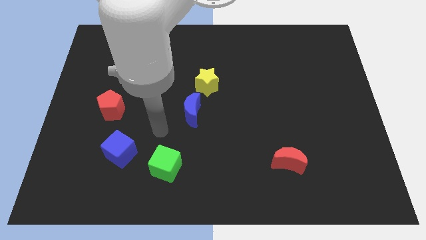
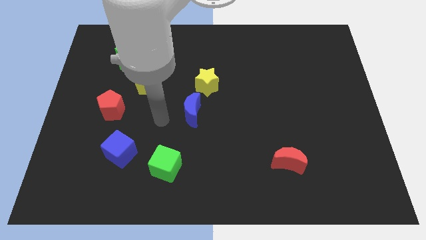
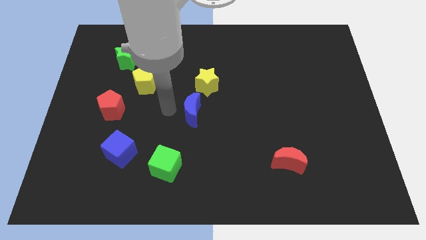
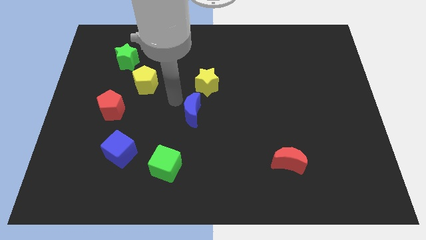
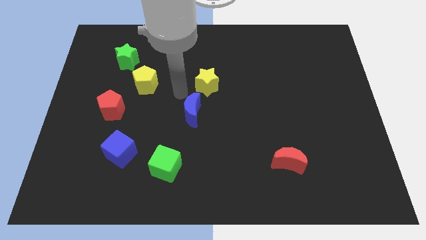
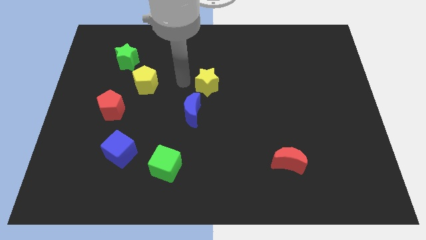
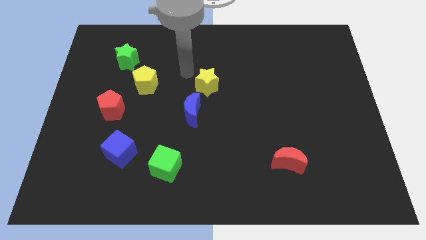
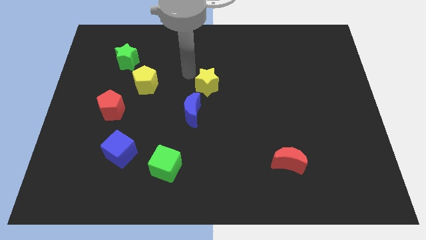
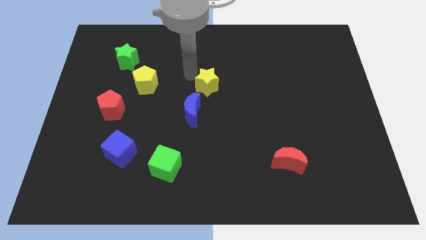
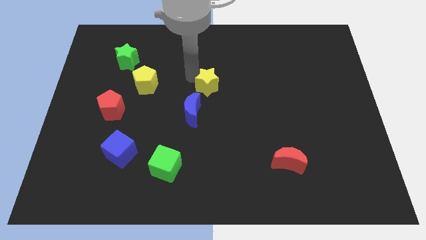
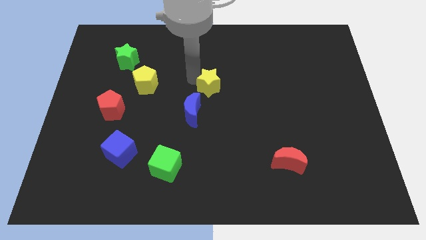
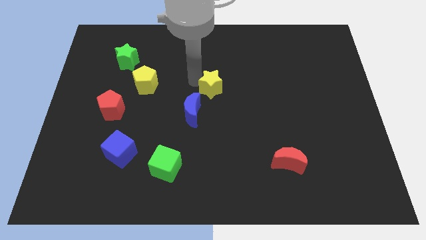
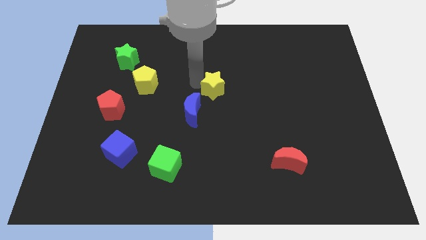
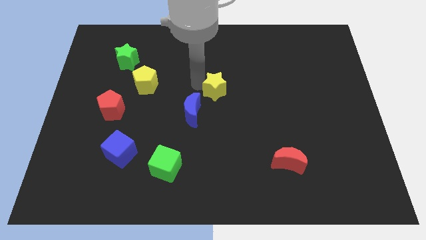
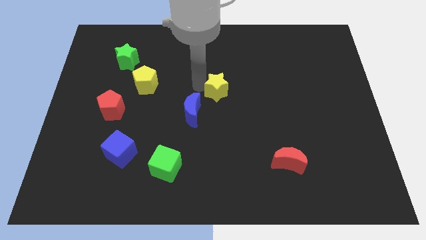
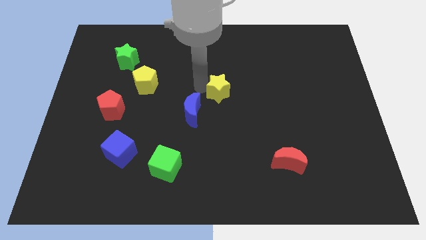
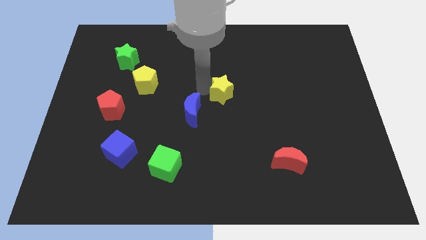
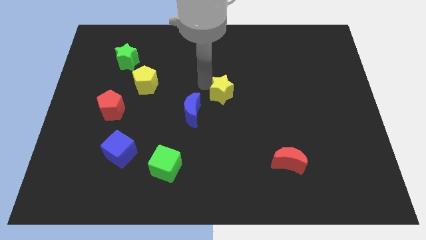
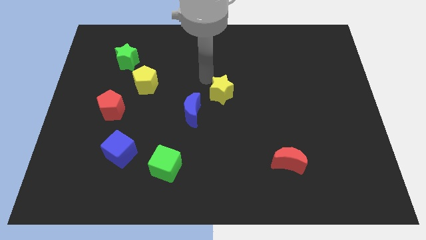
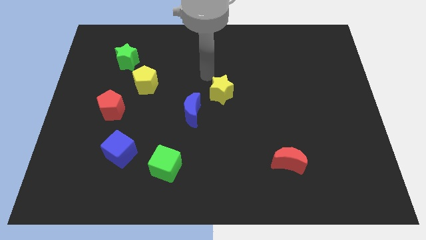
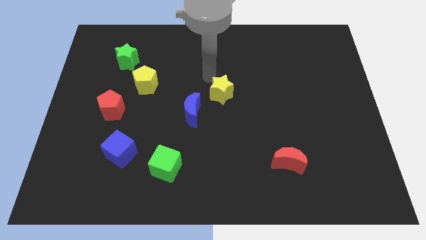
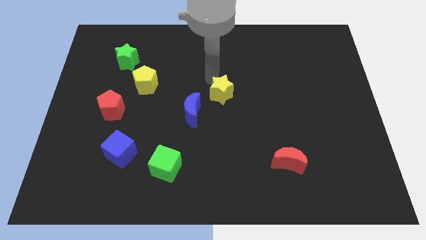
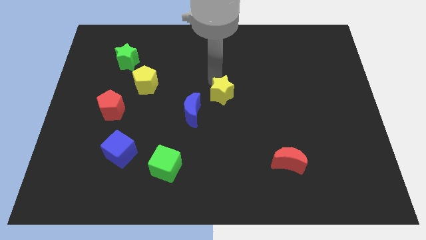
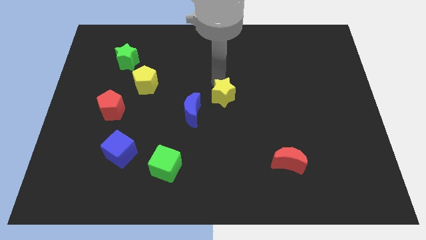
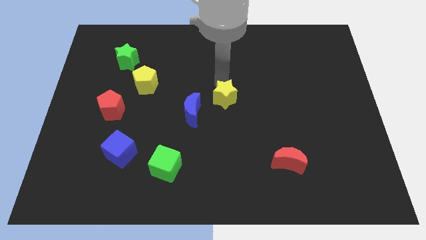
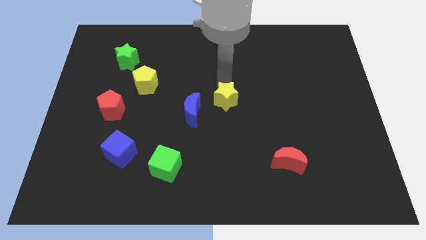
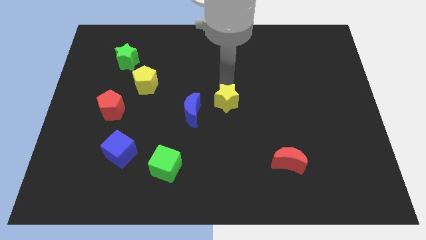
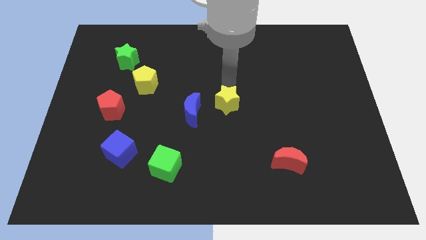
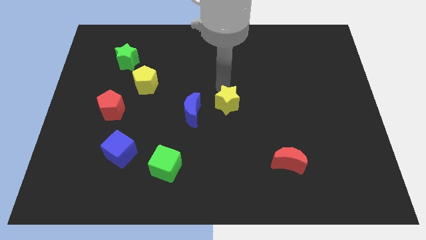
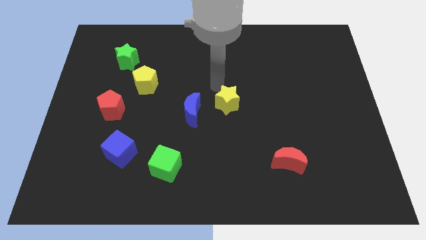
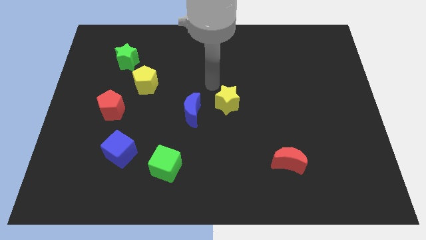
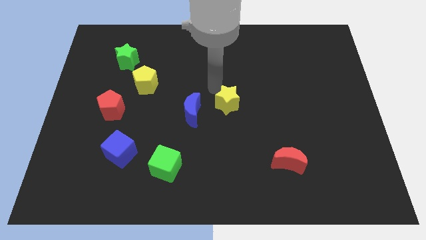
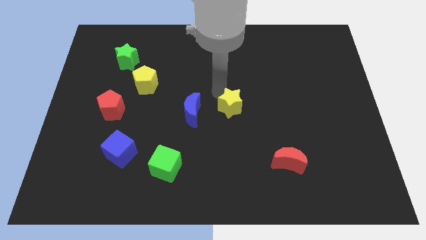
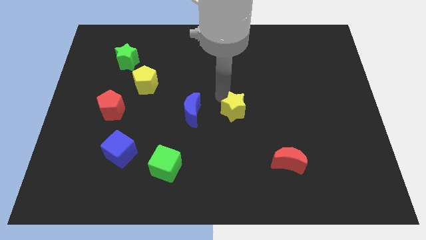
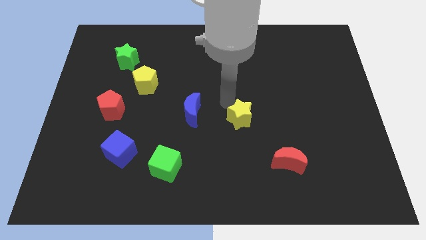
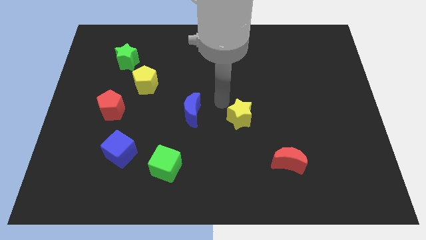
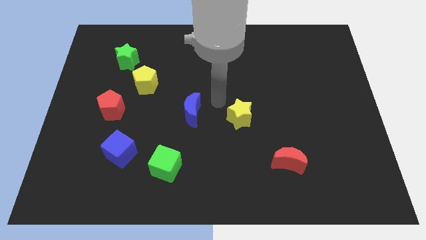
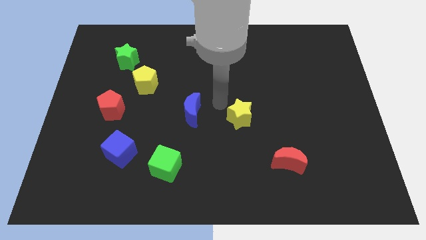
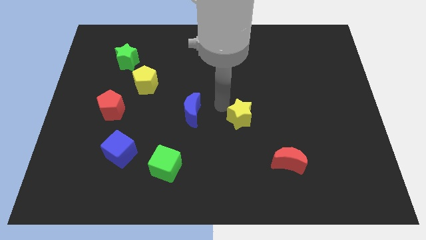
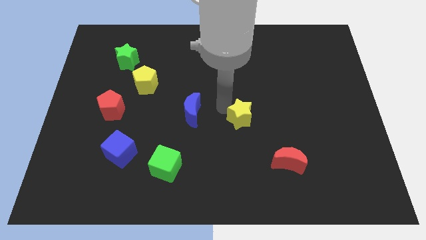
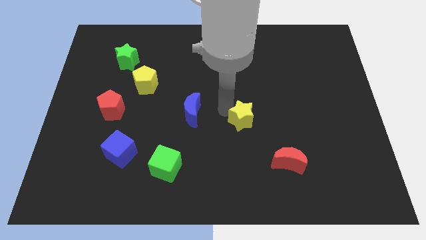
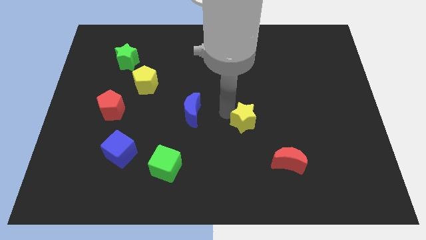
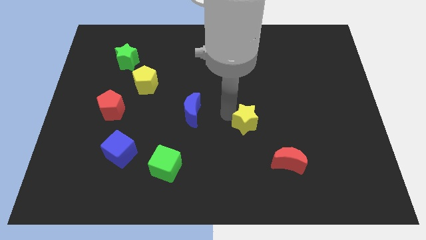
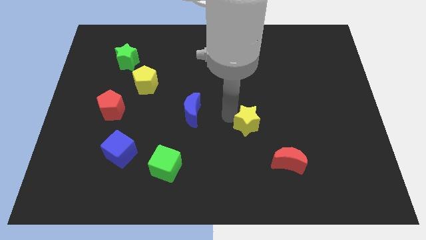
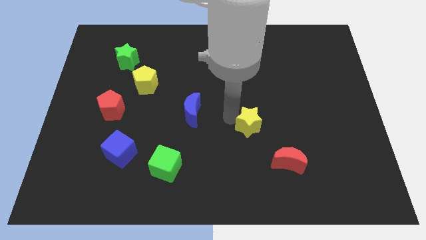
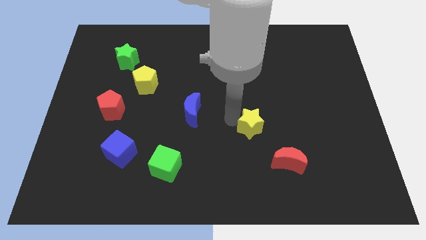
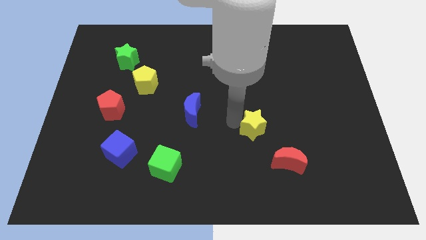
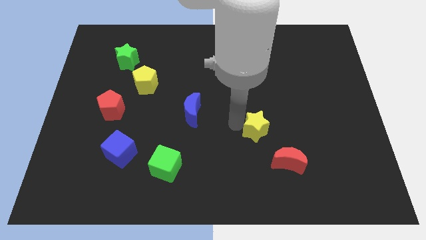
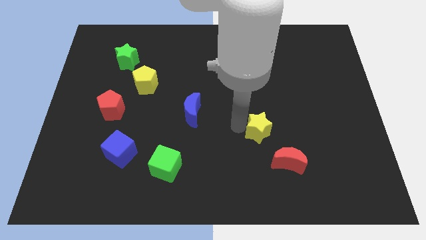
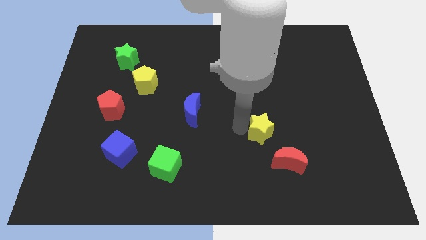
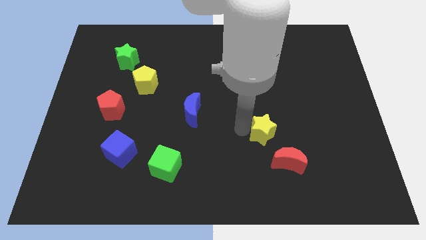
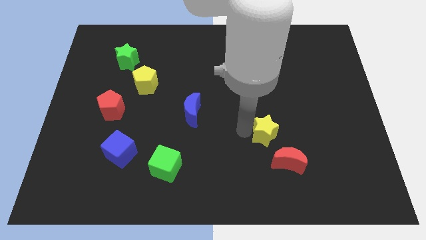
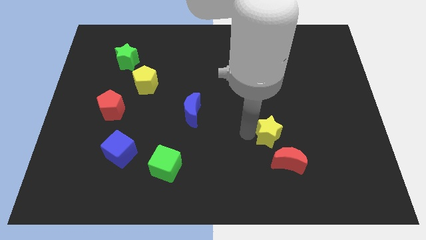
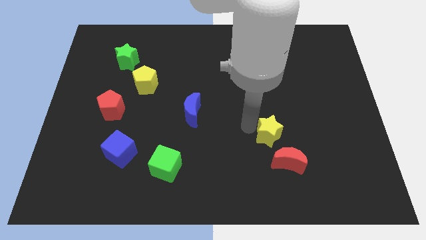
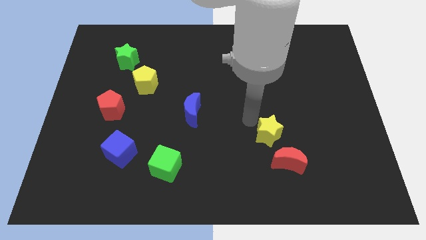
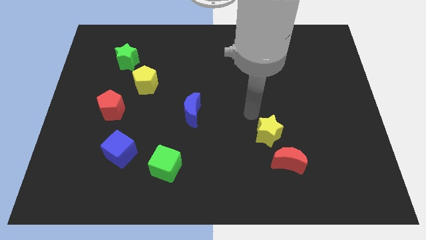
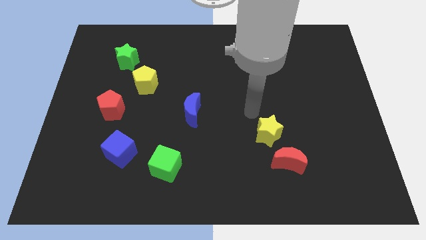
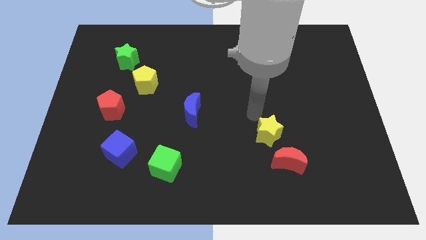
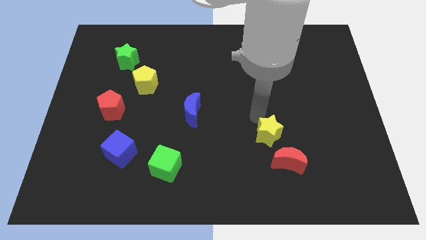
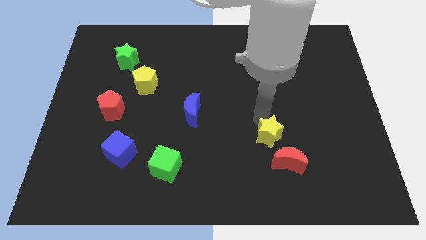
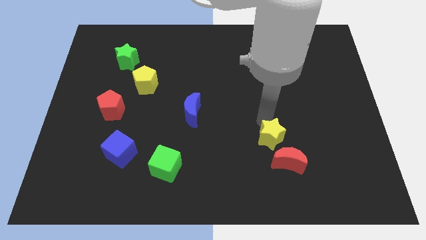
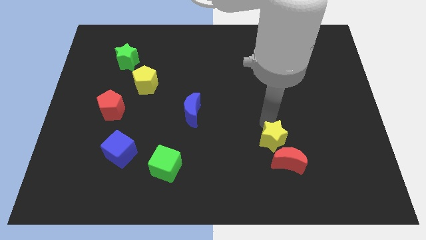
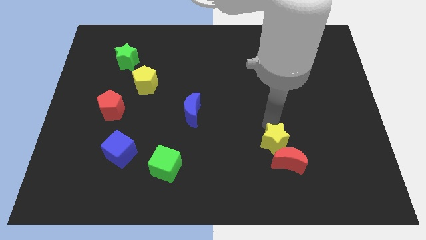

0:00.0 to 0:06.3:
slide the yellow star close to the red moon

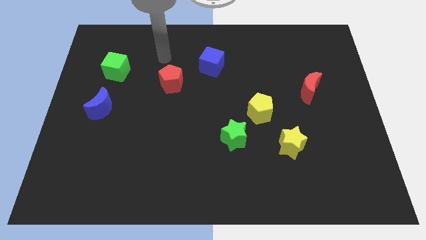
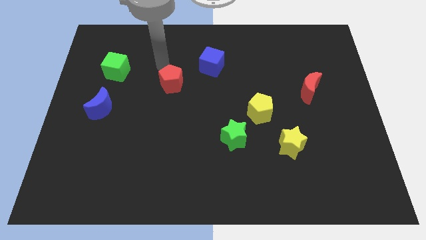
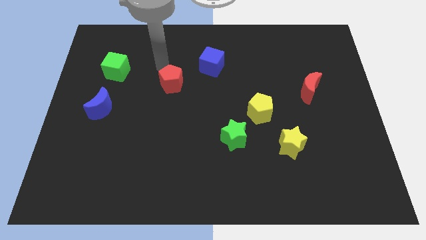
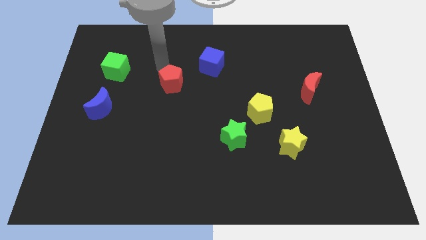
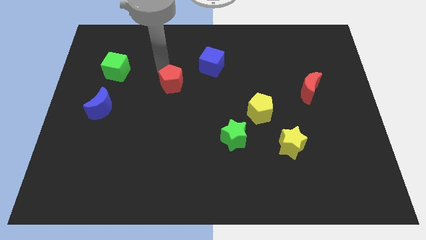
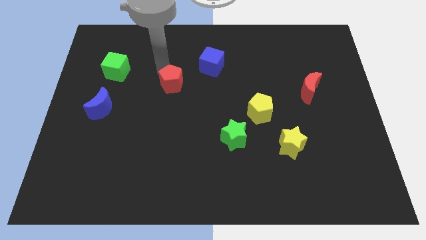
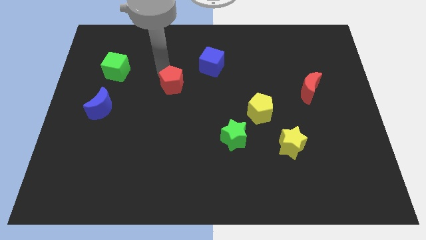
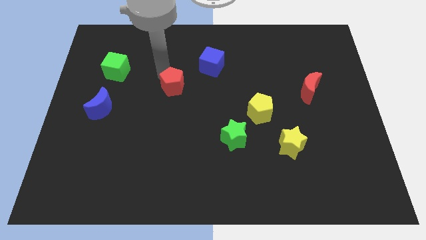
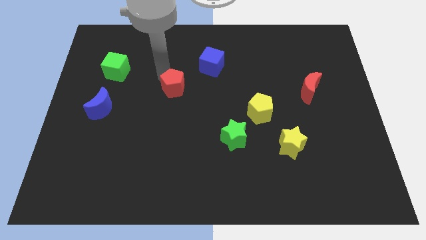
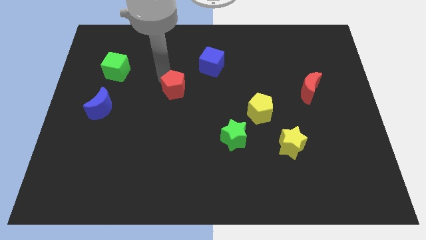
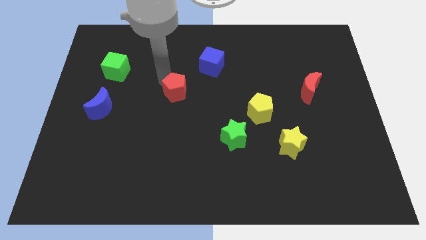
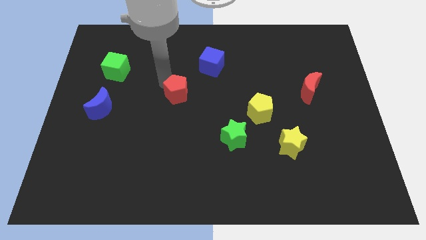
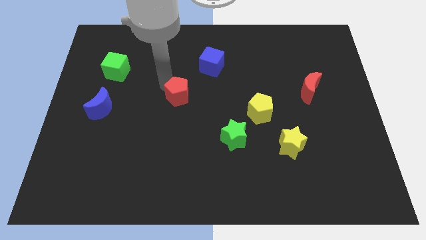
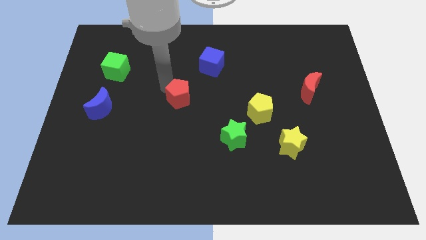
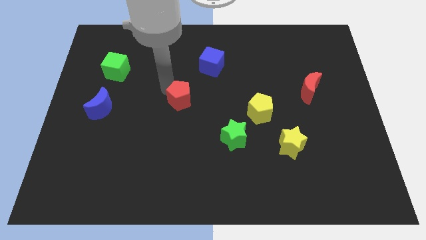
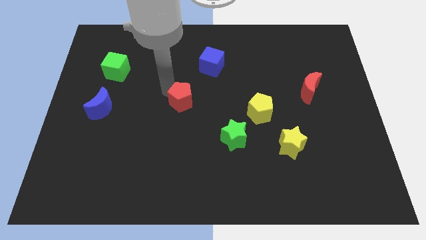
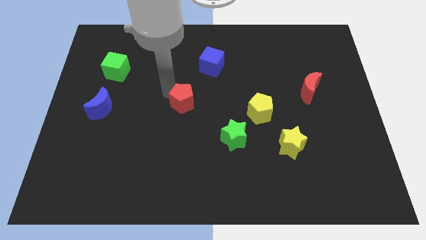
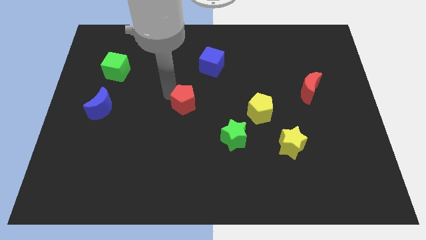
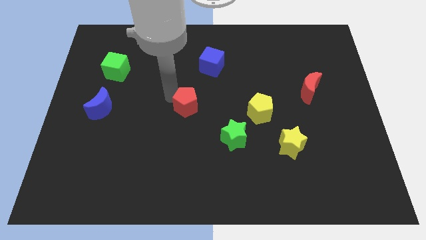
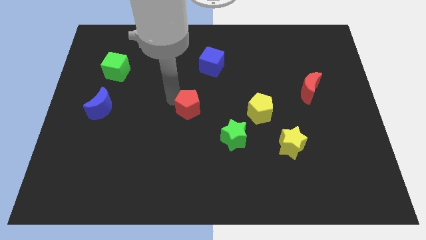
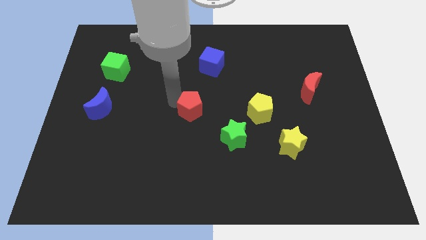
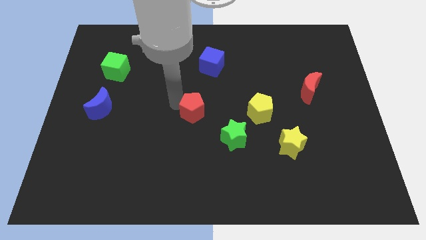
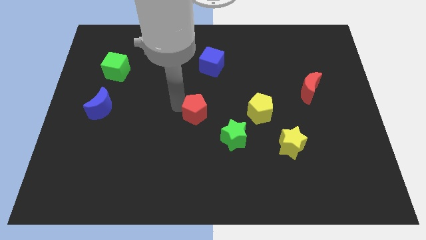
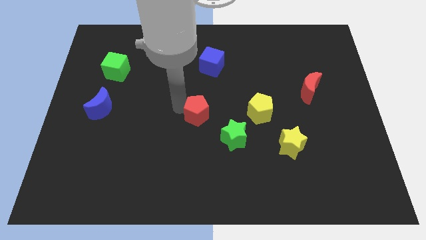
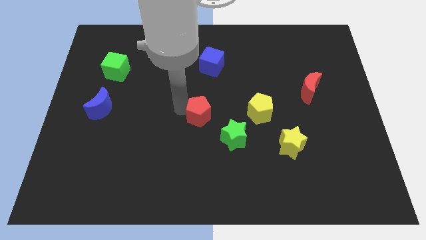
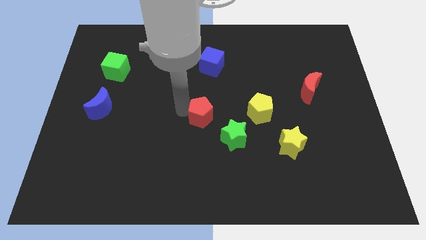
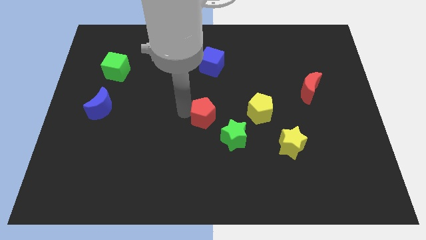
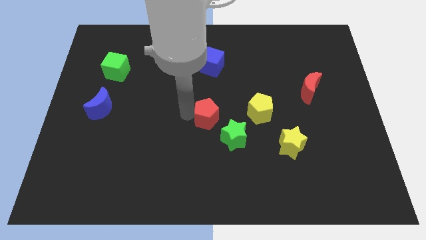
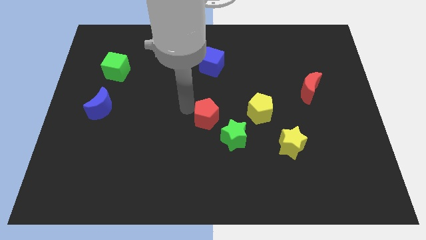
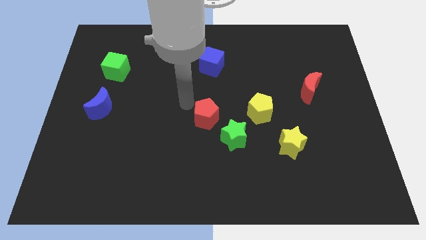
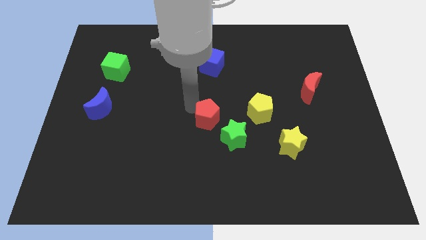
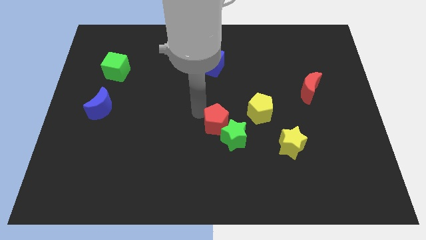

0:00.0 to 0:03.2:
put the red pentagon close to the green star
